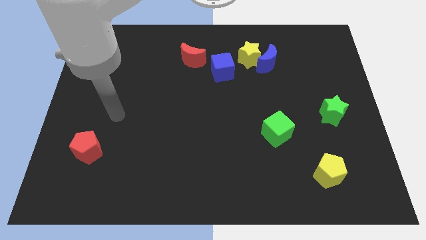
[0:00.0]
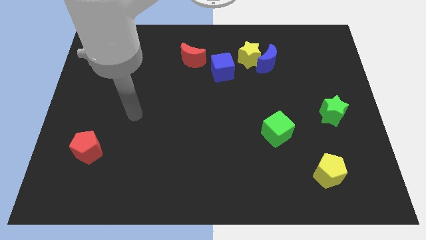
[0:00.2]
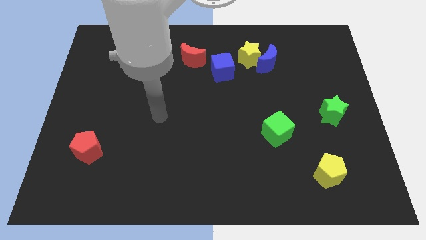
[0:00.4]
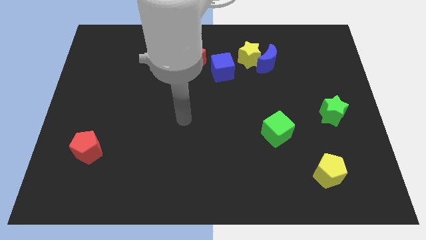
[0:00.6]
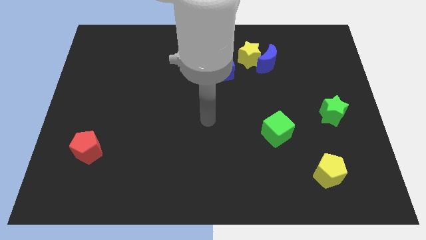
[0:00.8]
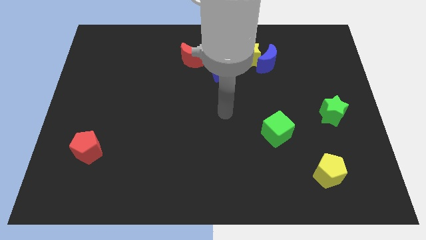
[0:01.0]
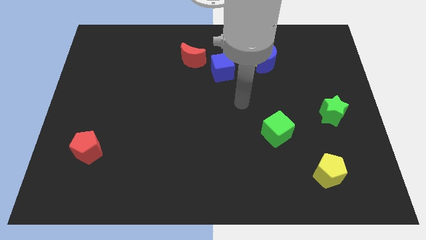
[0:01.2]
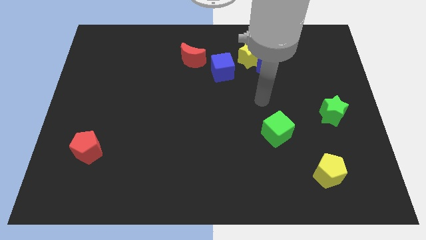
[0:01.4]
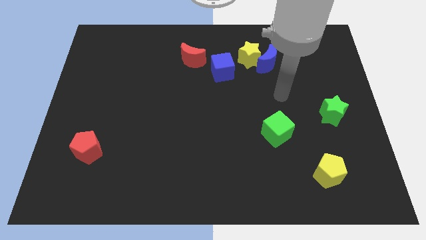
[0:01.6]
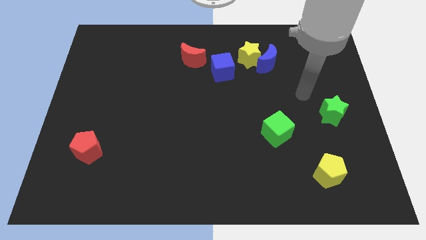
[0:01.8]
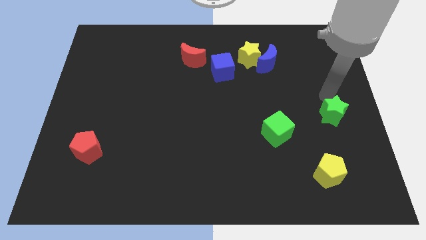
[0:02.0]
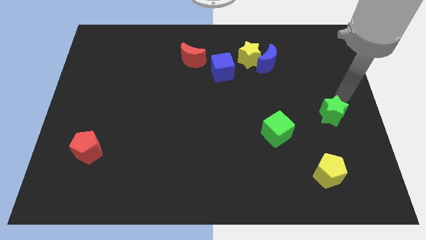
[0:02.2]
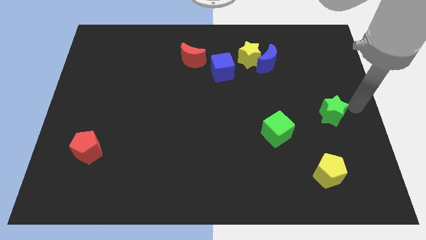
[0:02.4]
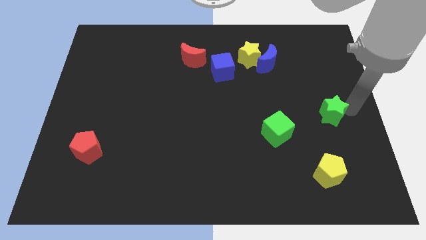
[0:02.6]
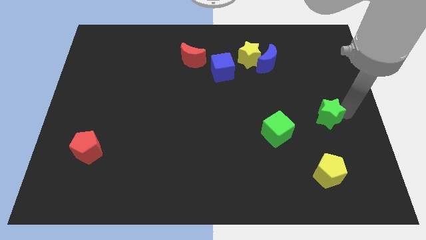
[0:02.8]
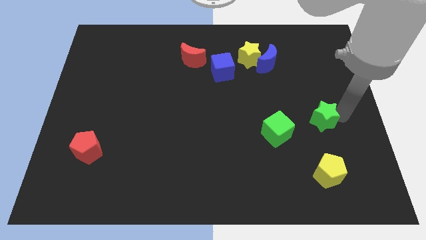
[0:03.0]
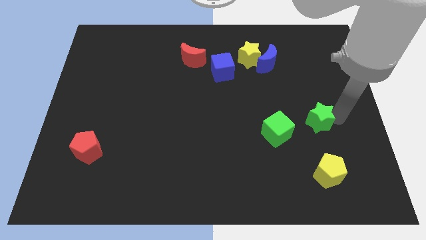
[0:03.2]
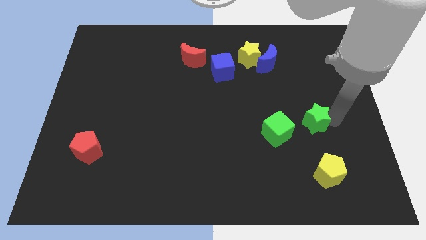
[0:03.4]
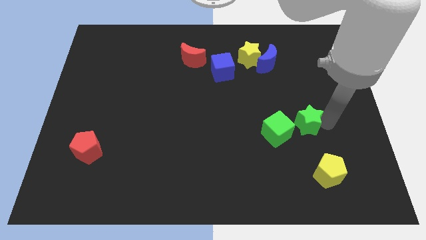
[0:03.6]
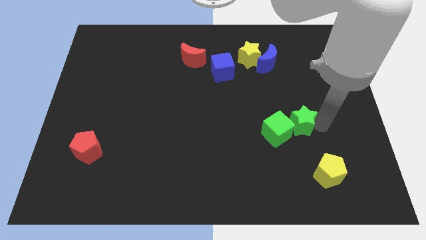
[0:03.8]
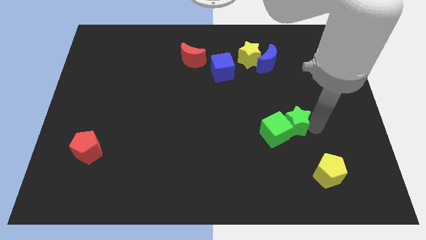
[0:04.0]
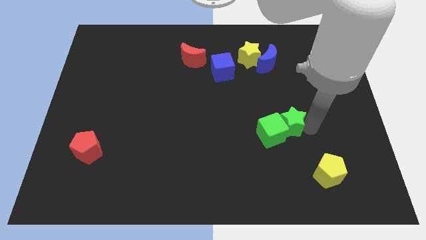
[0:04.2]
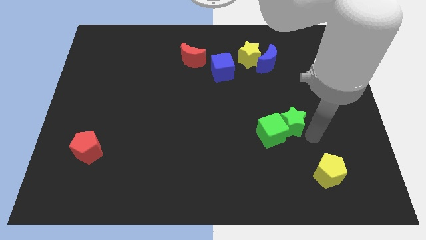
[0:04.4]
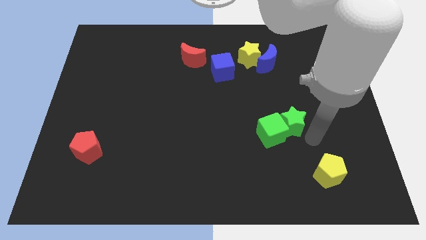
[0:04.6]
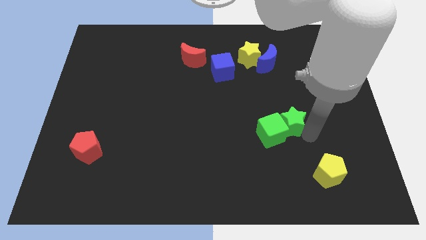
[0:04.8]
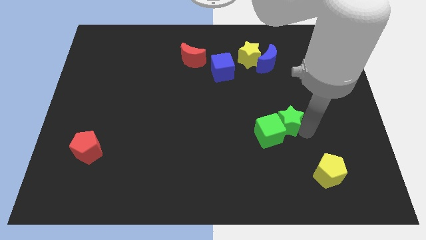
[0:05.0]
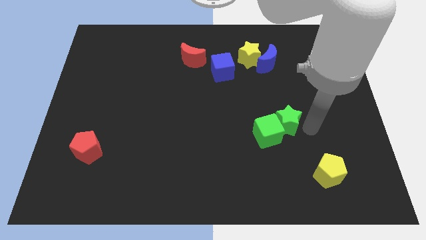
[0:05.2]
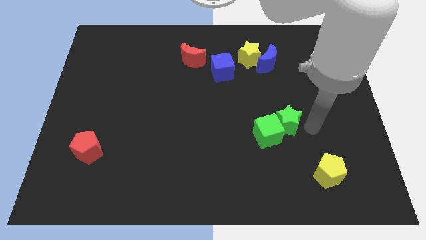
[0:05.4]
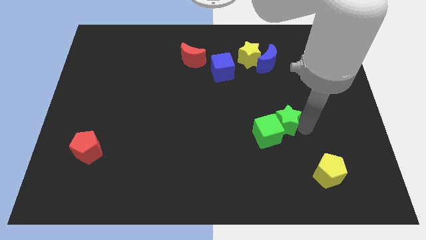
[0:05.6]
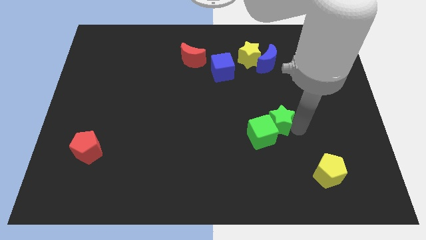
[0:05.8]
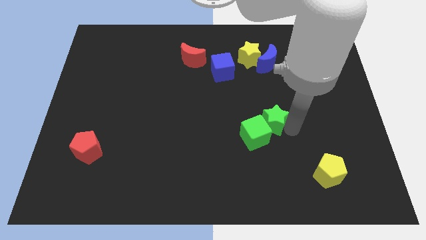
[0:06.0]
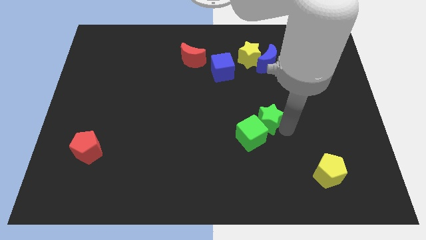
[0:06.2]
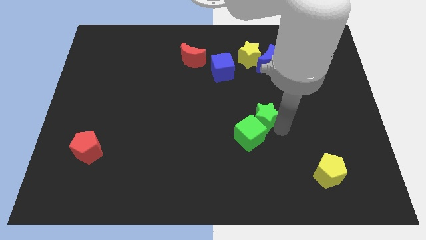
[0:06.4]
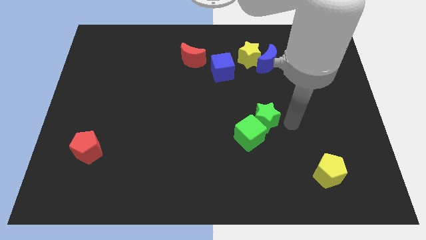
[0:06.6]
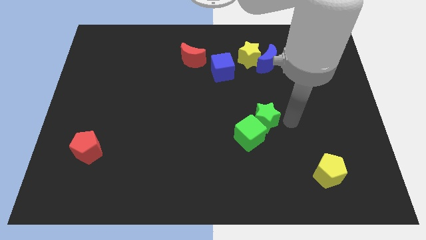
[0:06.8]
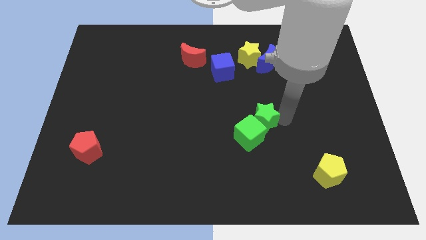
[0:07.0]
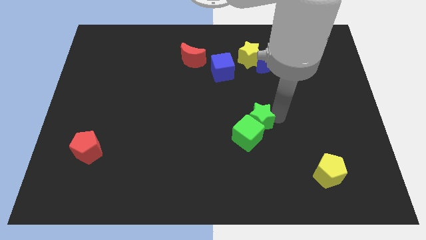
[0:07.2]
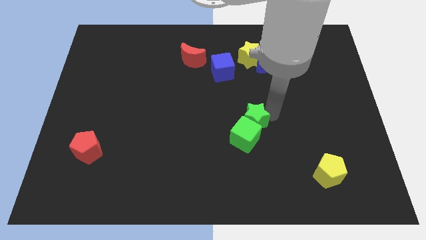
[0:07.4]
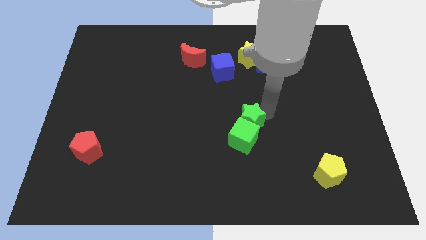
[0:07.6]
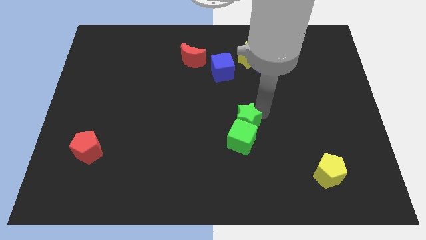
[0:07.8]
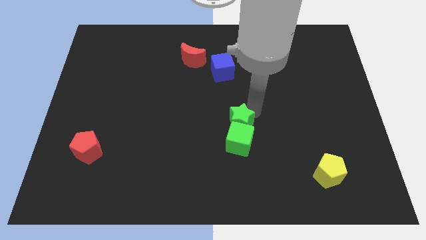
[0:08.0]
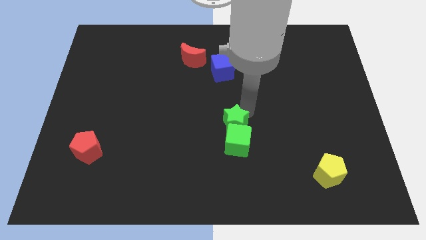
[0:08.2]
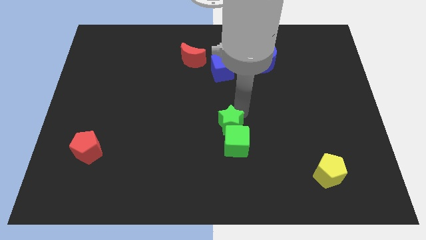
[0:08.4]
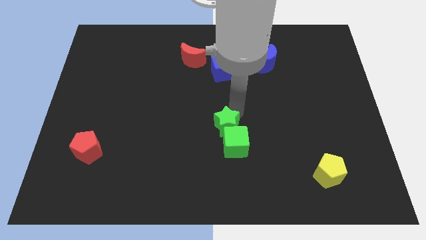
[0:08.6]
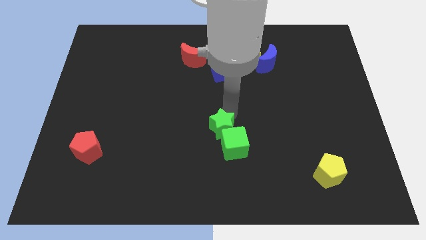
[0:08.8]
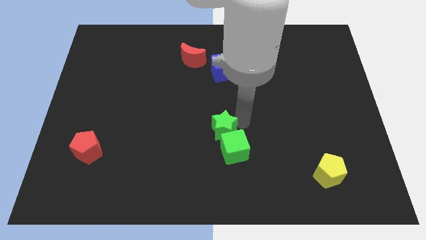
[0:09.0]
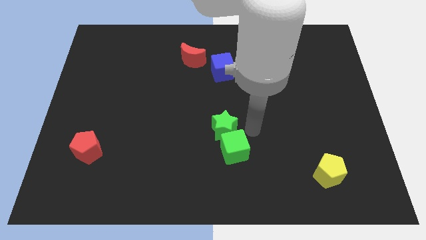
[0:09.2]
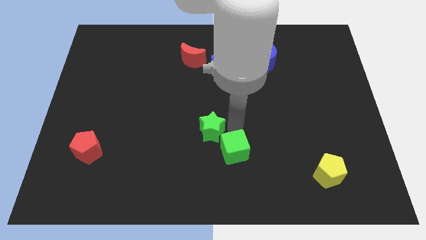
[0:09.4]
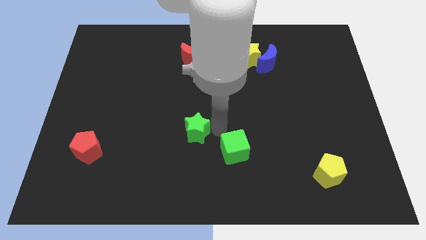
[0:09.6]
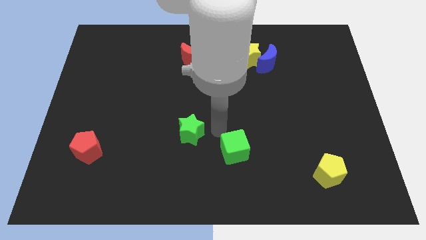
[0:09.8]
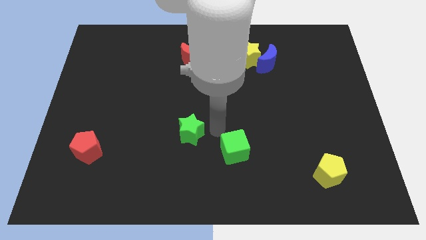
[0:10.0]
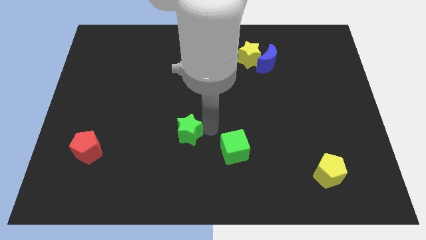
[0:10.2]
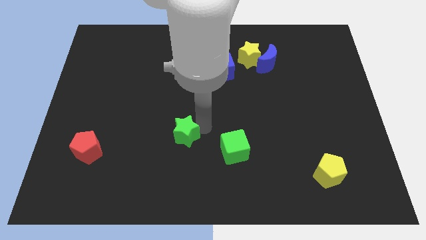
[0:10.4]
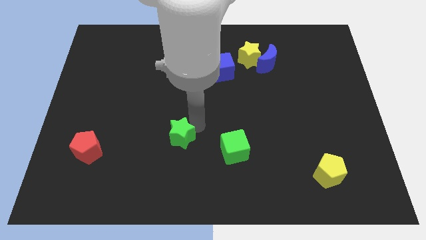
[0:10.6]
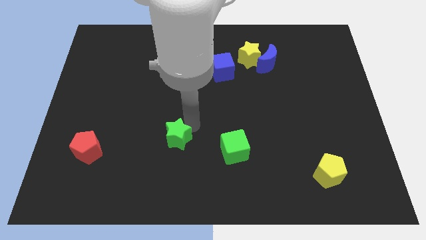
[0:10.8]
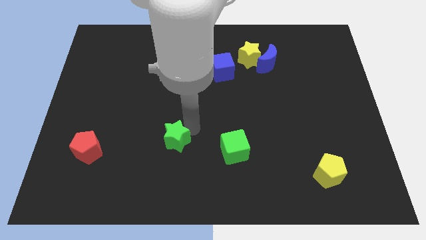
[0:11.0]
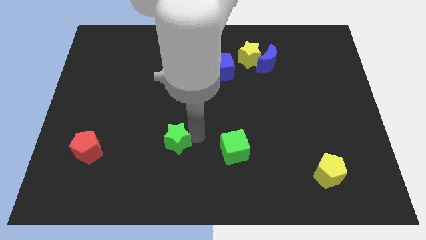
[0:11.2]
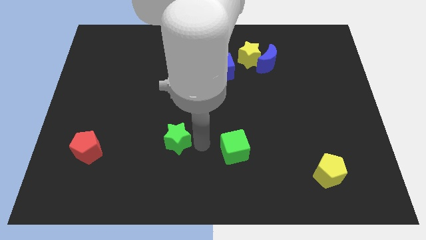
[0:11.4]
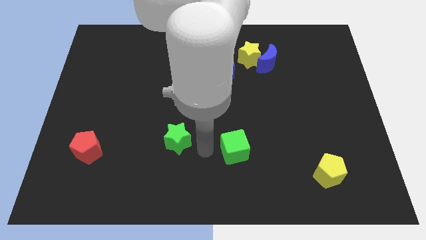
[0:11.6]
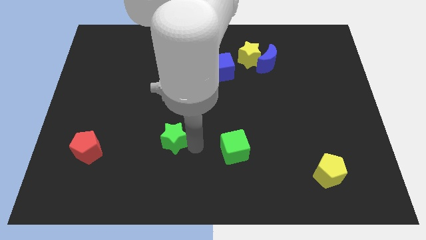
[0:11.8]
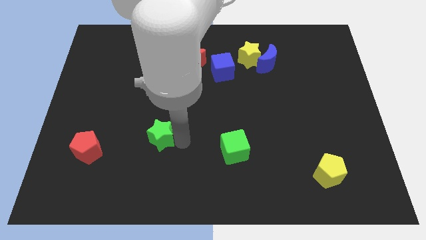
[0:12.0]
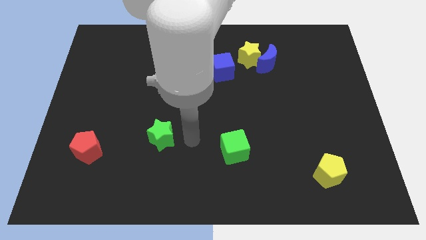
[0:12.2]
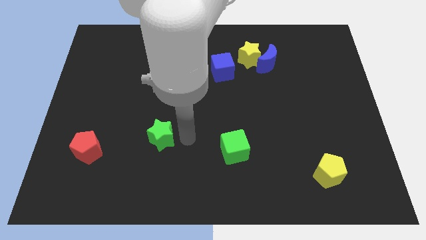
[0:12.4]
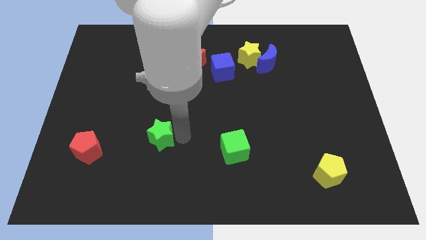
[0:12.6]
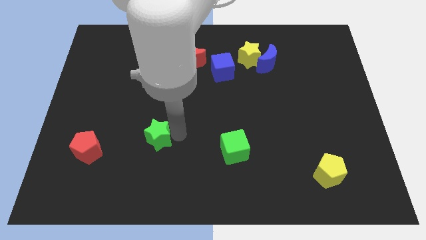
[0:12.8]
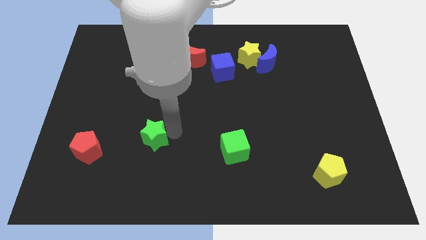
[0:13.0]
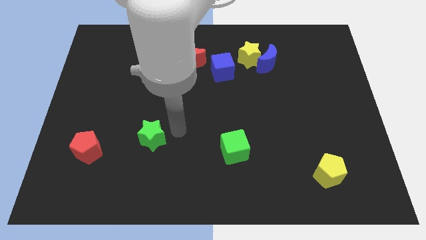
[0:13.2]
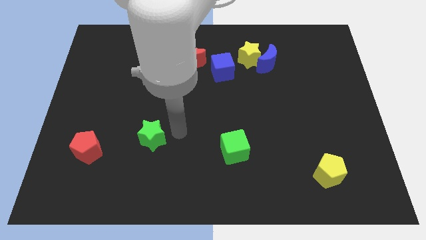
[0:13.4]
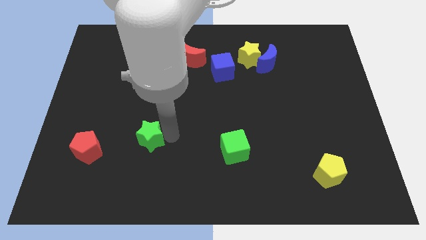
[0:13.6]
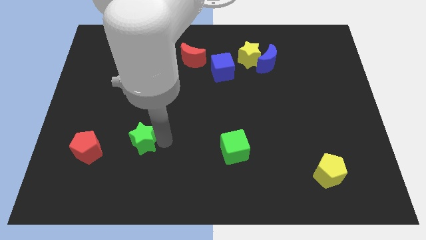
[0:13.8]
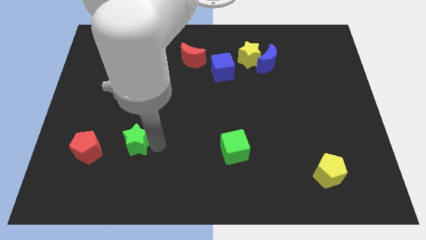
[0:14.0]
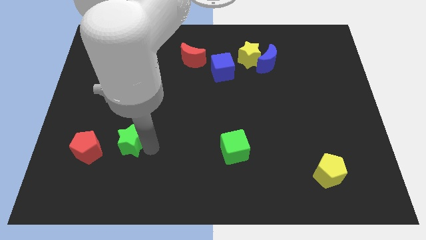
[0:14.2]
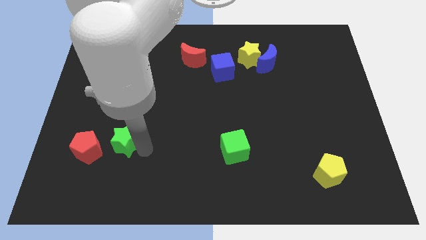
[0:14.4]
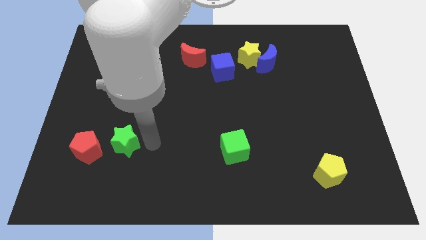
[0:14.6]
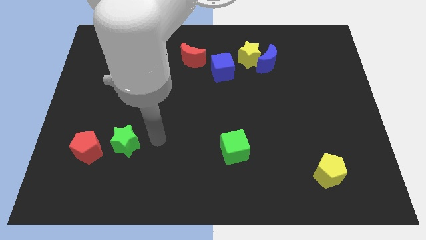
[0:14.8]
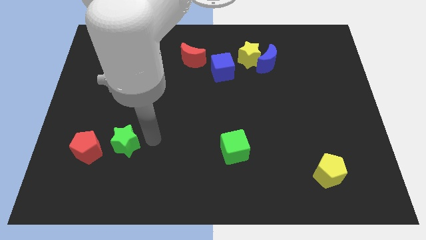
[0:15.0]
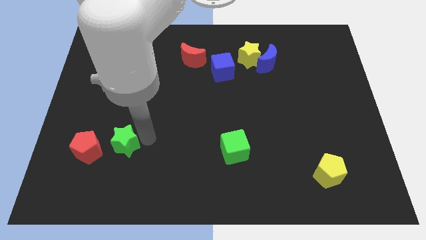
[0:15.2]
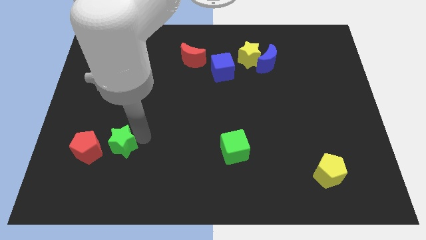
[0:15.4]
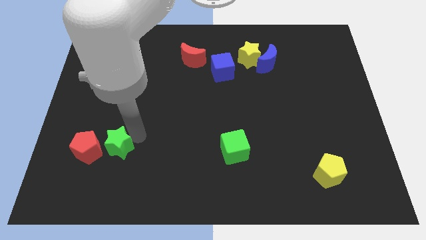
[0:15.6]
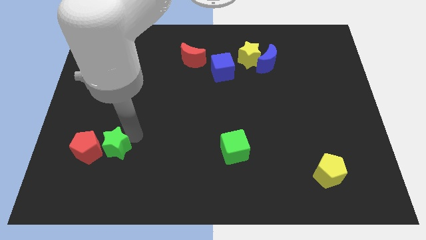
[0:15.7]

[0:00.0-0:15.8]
slide the green star towards the red pentagon
